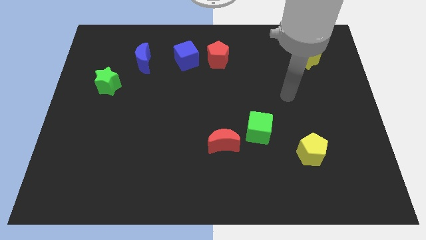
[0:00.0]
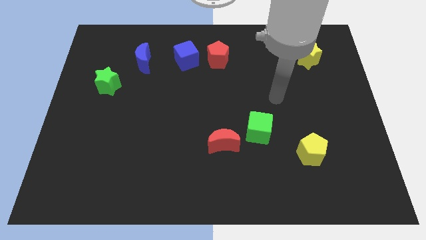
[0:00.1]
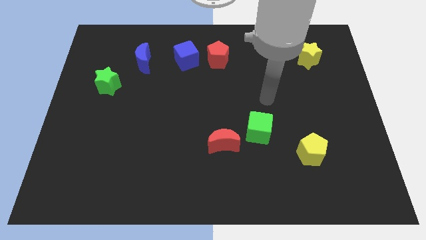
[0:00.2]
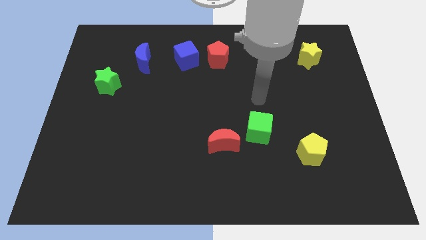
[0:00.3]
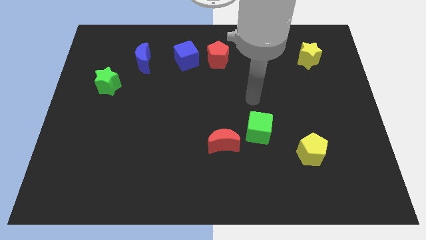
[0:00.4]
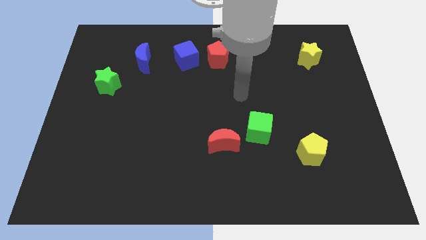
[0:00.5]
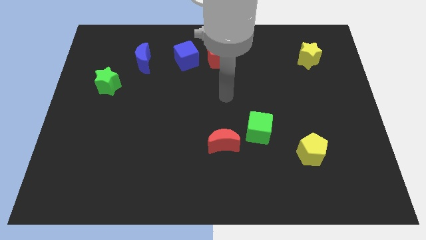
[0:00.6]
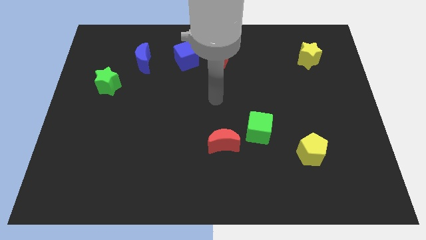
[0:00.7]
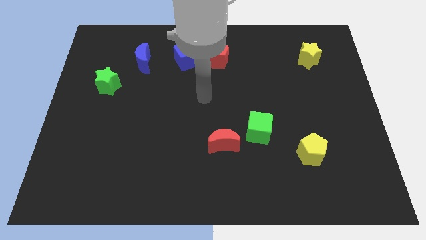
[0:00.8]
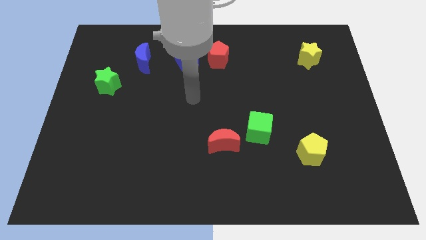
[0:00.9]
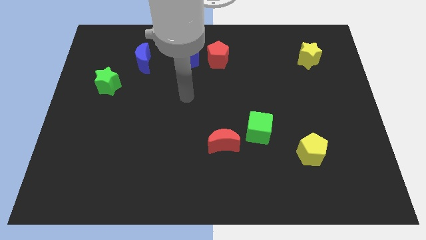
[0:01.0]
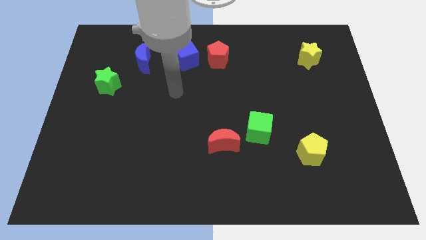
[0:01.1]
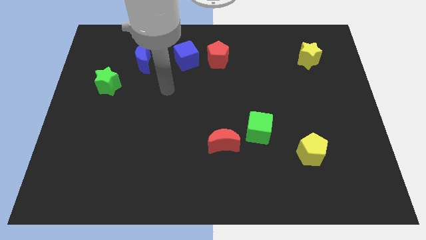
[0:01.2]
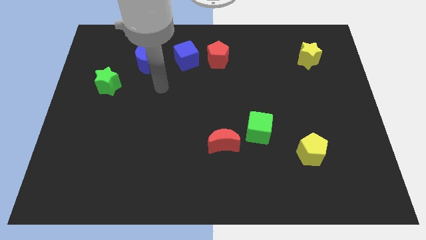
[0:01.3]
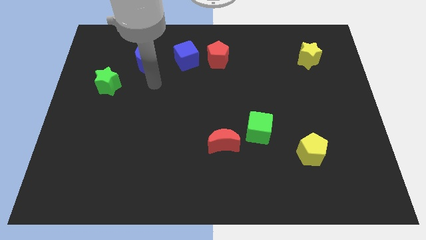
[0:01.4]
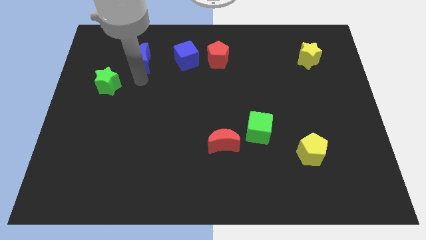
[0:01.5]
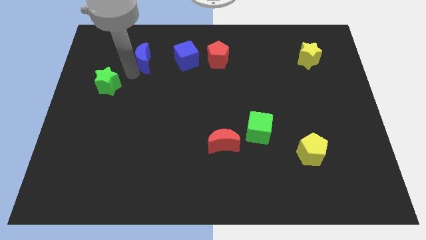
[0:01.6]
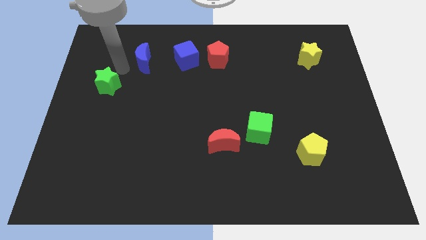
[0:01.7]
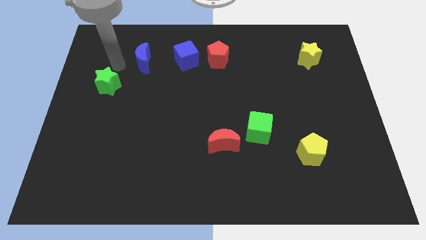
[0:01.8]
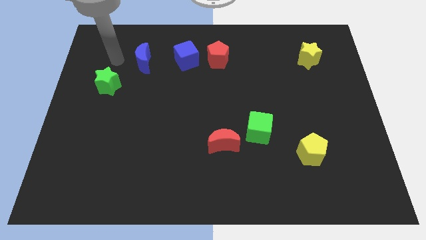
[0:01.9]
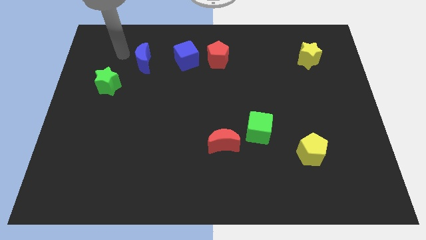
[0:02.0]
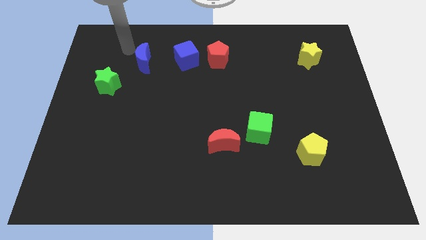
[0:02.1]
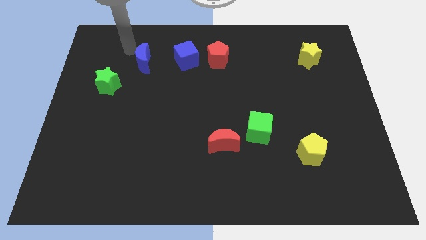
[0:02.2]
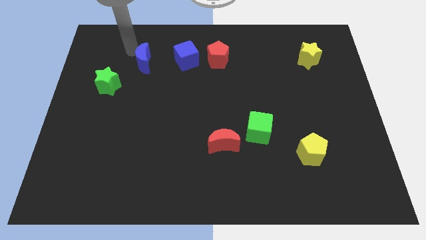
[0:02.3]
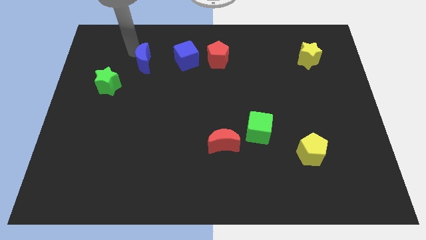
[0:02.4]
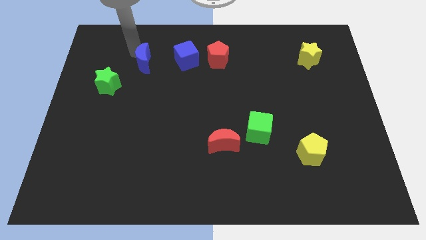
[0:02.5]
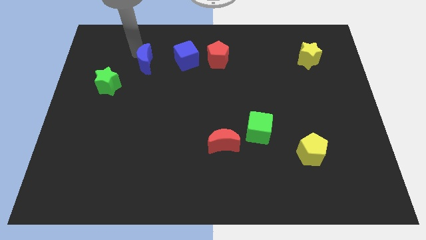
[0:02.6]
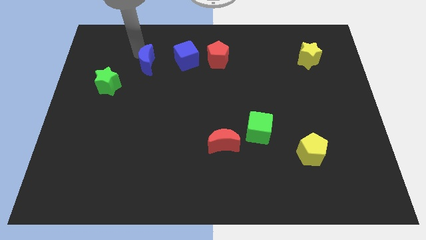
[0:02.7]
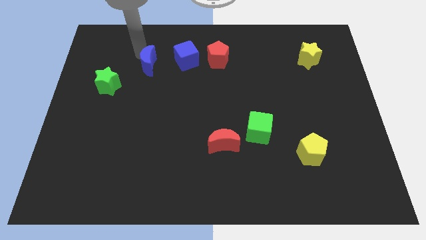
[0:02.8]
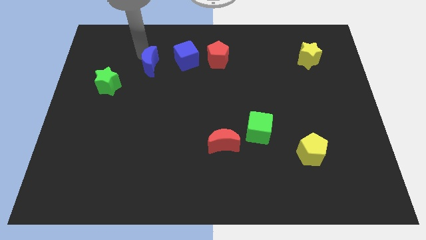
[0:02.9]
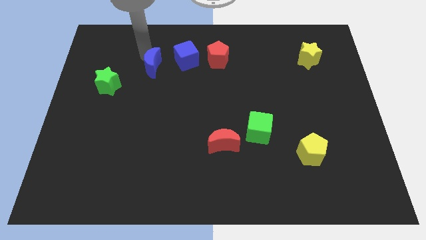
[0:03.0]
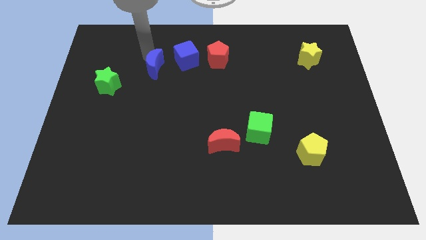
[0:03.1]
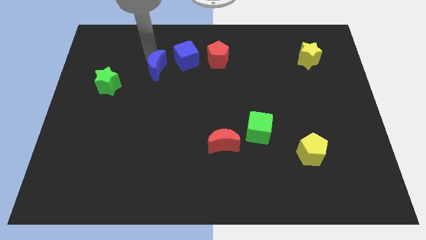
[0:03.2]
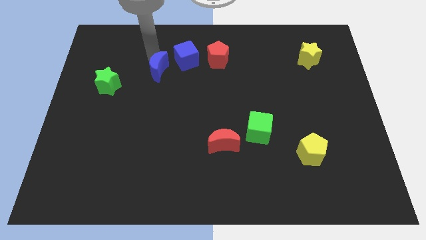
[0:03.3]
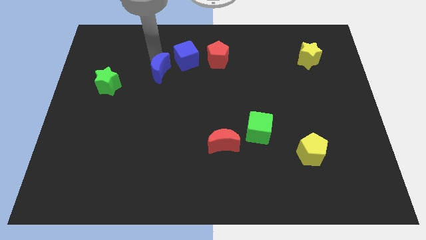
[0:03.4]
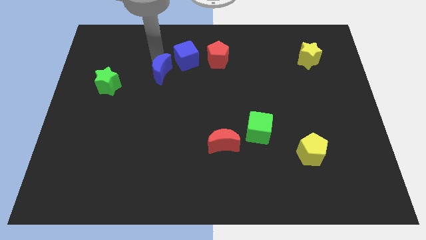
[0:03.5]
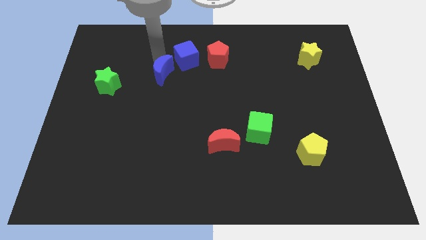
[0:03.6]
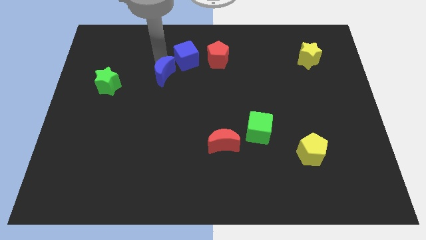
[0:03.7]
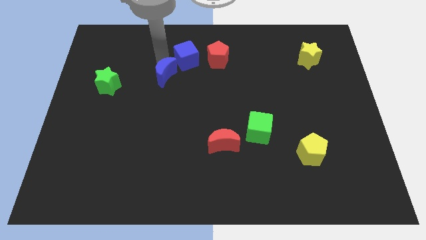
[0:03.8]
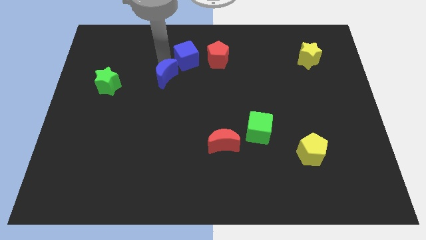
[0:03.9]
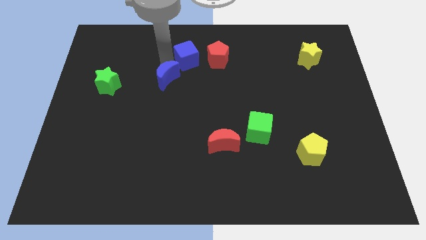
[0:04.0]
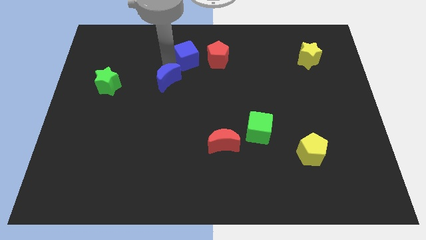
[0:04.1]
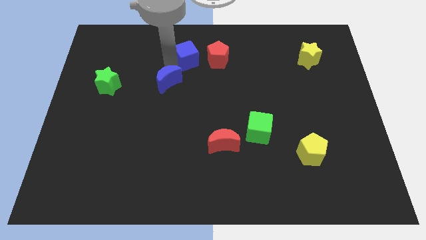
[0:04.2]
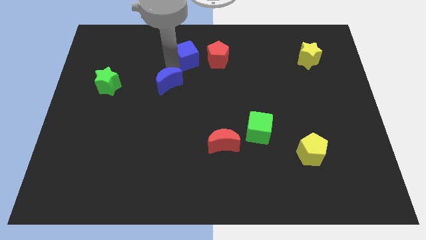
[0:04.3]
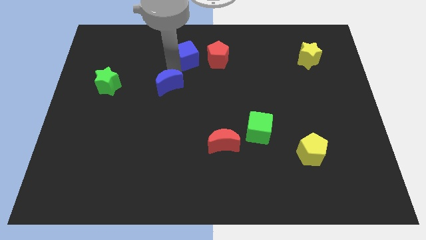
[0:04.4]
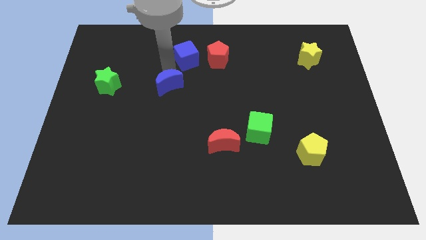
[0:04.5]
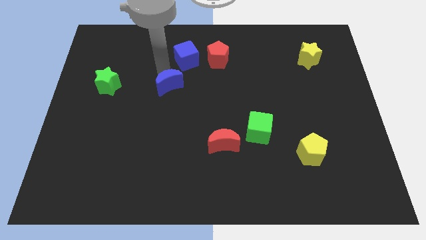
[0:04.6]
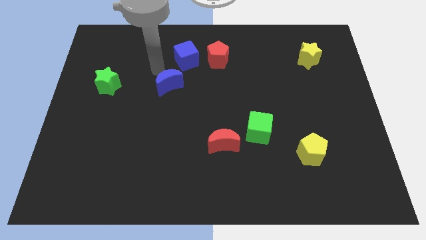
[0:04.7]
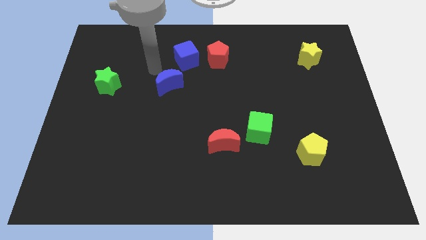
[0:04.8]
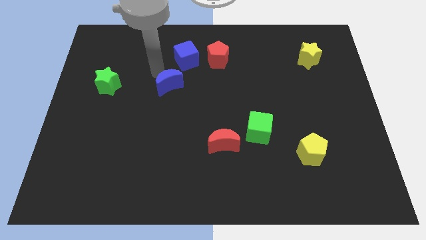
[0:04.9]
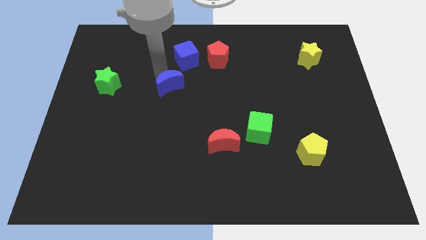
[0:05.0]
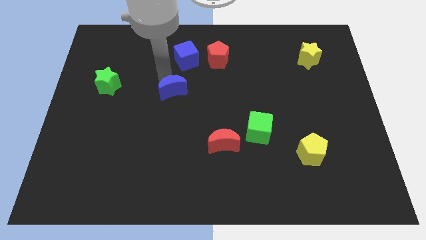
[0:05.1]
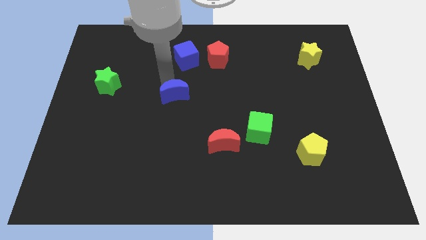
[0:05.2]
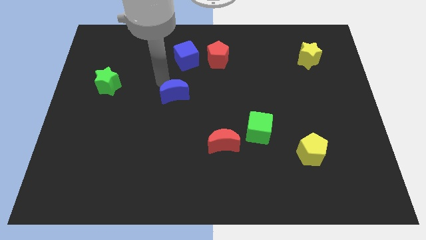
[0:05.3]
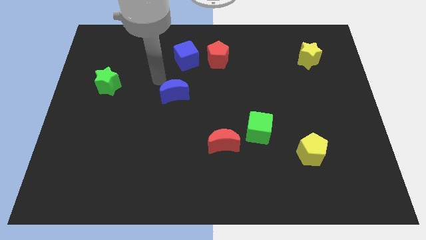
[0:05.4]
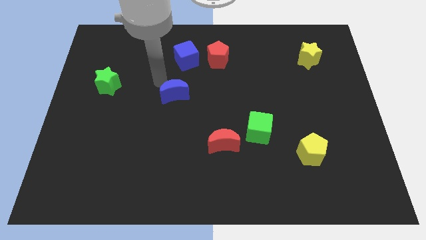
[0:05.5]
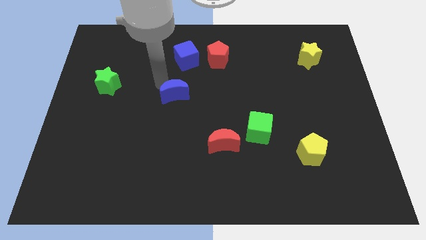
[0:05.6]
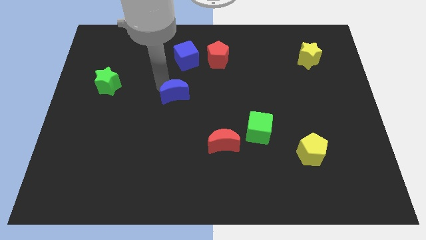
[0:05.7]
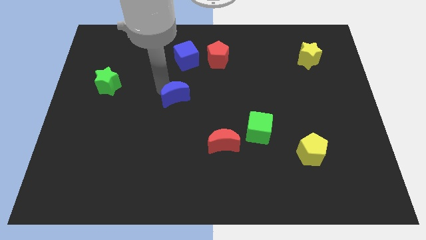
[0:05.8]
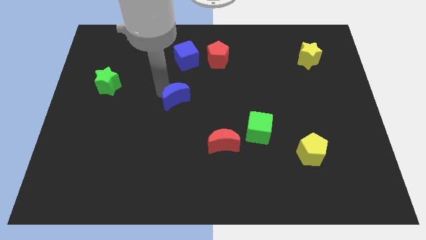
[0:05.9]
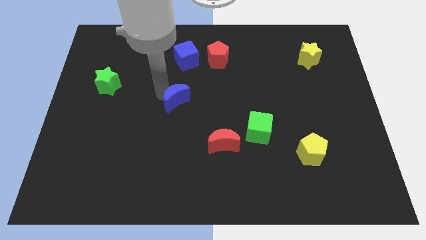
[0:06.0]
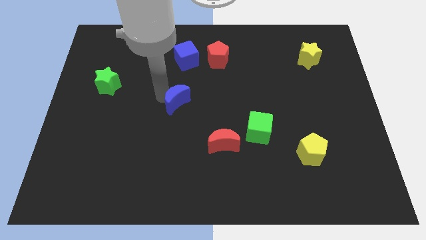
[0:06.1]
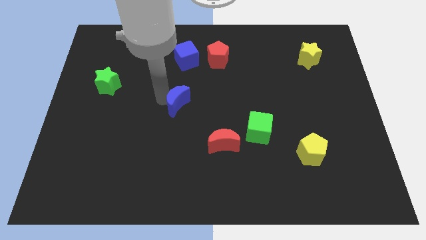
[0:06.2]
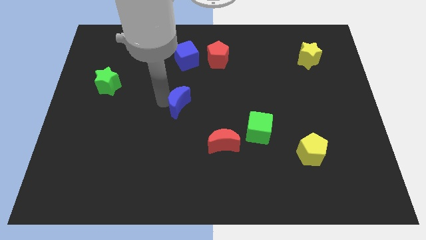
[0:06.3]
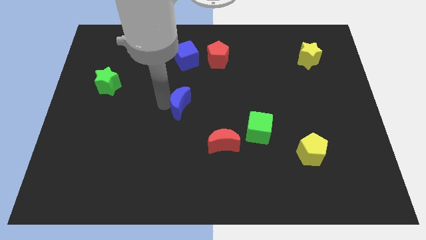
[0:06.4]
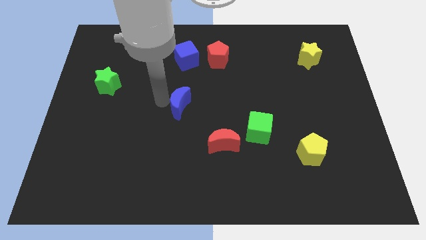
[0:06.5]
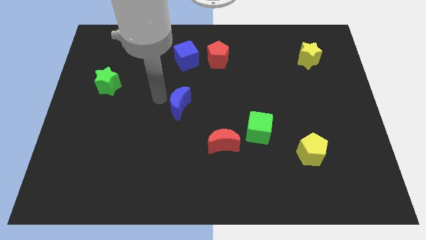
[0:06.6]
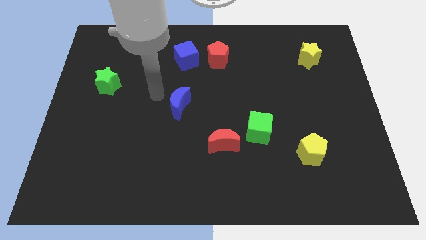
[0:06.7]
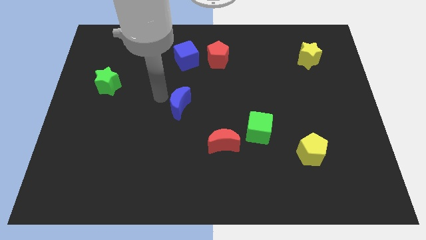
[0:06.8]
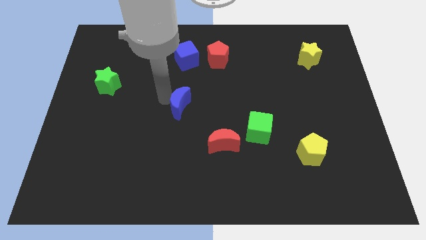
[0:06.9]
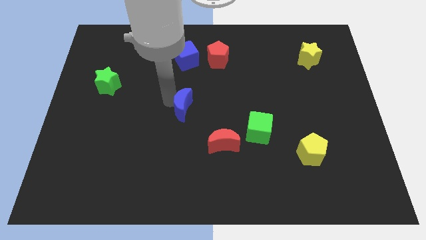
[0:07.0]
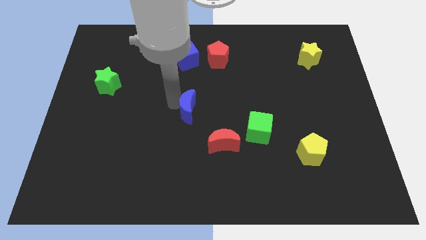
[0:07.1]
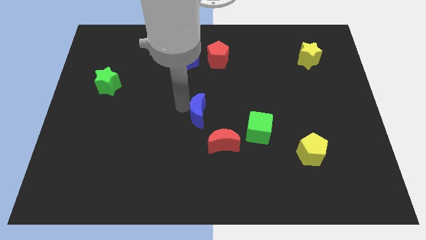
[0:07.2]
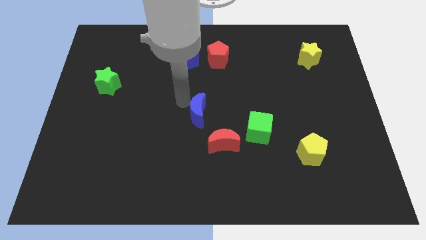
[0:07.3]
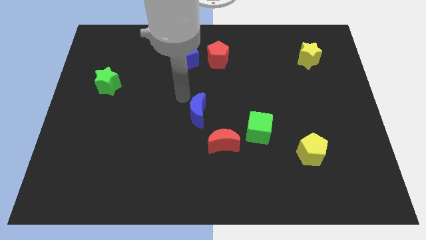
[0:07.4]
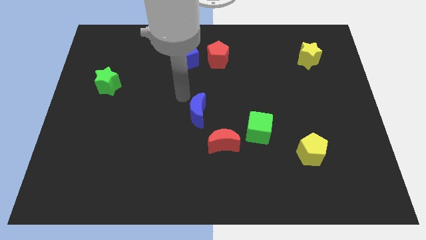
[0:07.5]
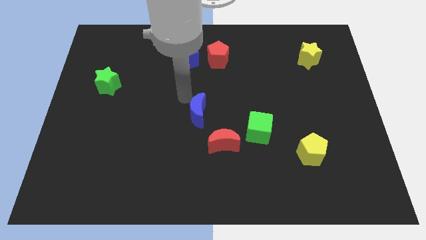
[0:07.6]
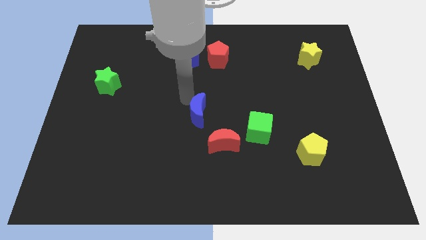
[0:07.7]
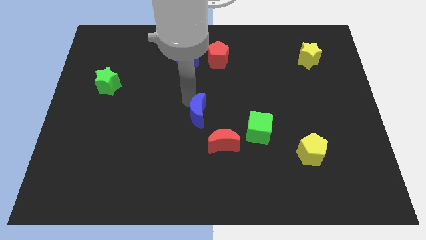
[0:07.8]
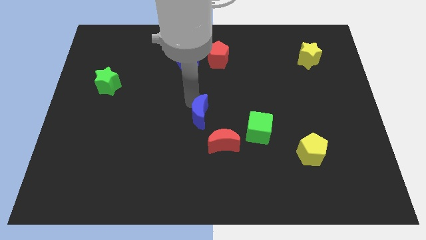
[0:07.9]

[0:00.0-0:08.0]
move the blue moon just left of the green cube
